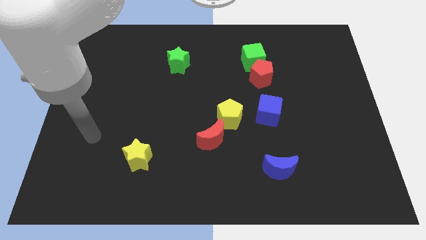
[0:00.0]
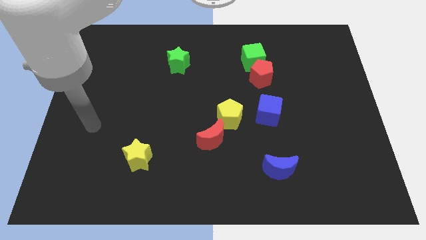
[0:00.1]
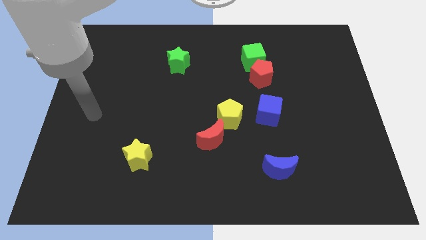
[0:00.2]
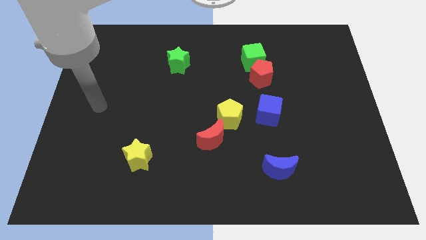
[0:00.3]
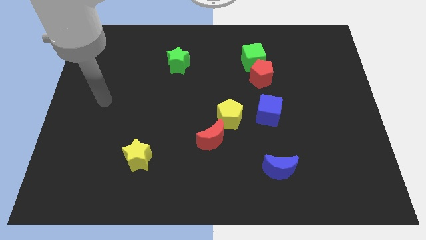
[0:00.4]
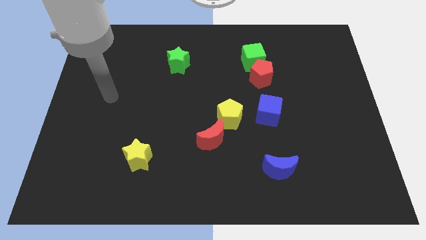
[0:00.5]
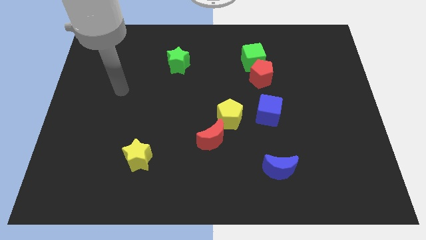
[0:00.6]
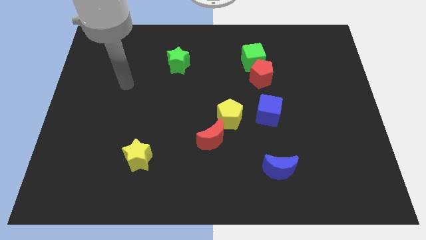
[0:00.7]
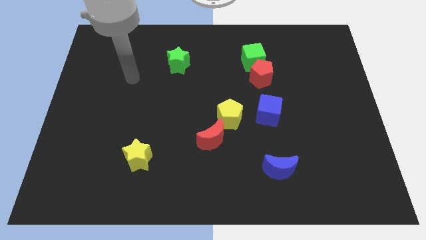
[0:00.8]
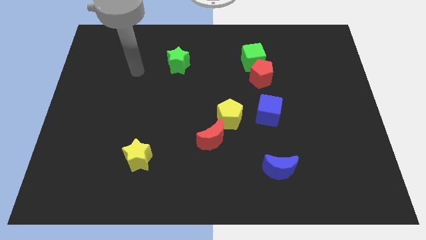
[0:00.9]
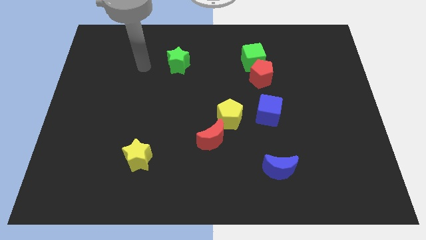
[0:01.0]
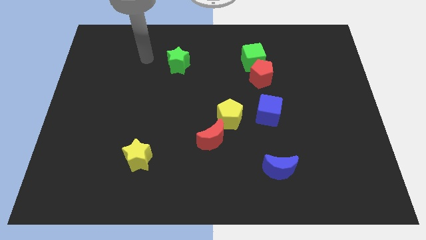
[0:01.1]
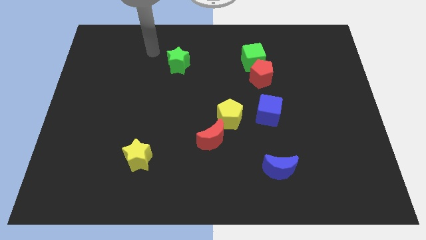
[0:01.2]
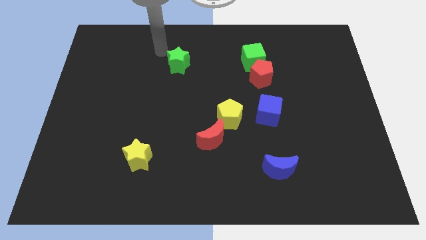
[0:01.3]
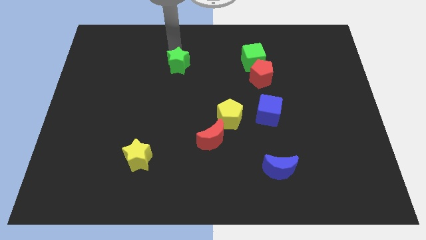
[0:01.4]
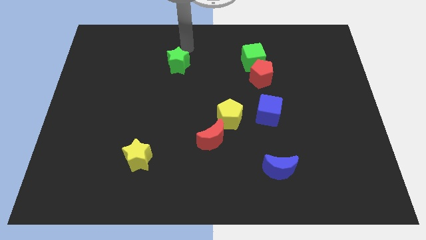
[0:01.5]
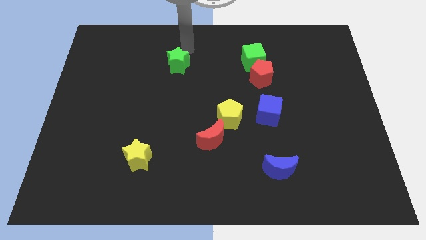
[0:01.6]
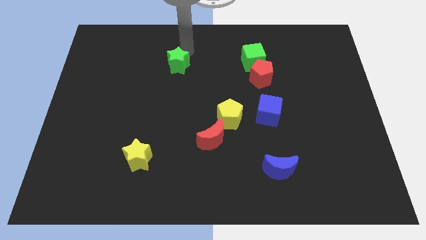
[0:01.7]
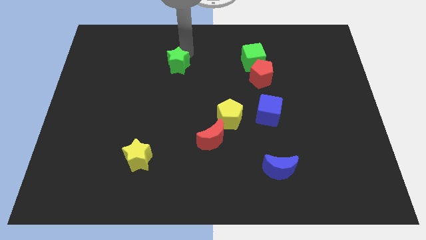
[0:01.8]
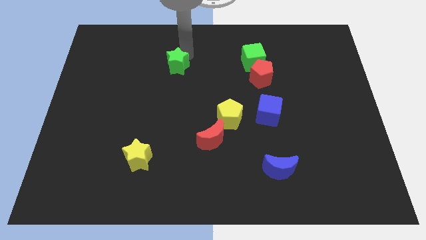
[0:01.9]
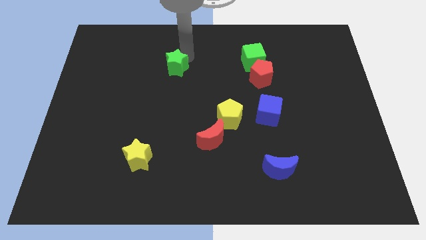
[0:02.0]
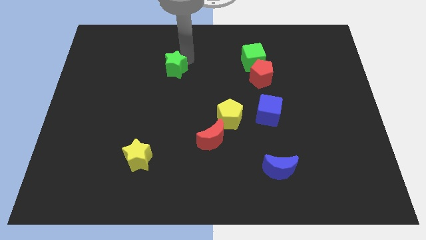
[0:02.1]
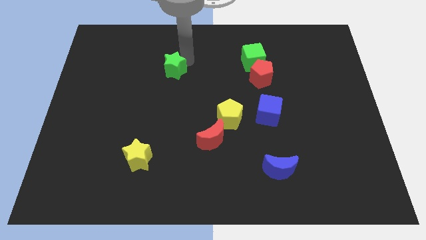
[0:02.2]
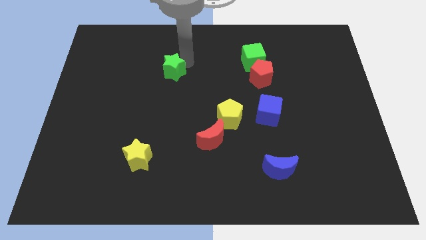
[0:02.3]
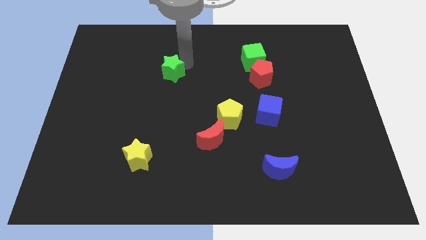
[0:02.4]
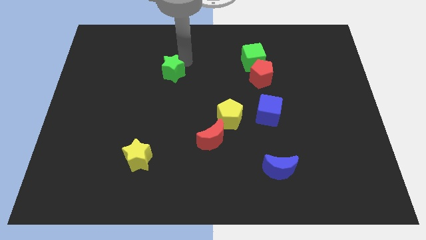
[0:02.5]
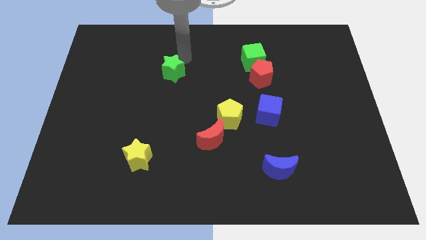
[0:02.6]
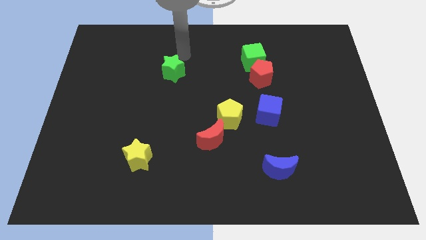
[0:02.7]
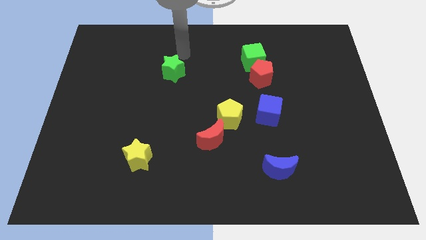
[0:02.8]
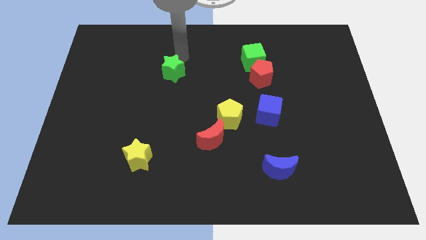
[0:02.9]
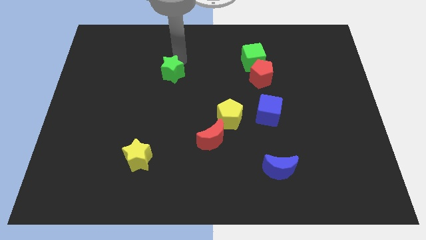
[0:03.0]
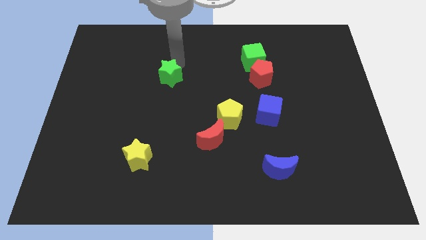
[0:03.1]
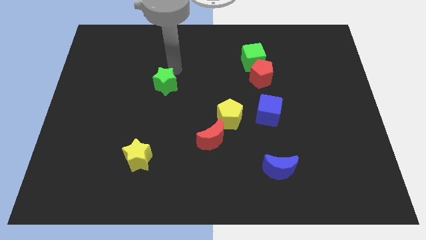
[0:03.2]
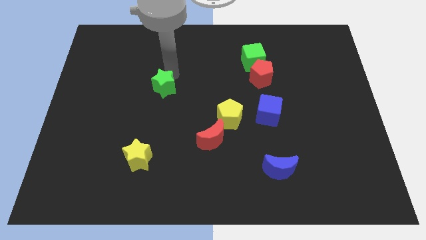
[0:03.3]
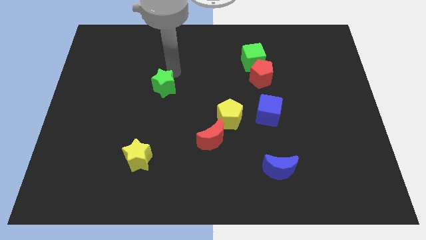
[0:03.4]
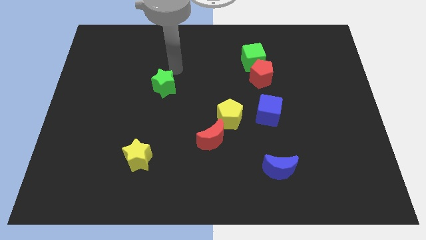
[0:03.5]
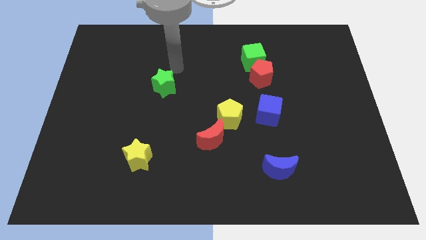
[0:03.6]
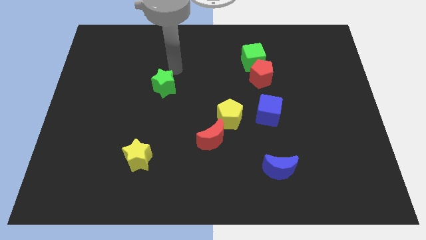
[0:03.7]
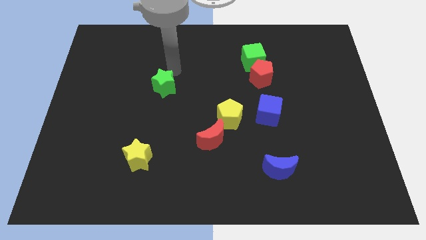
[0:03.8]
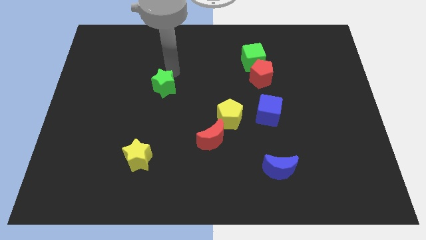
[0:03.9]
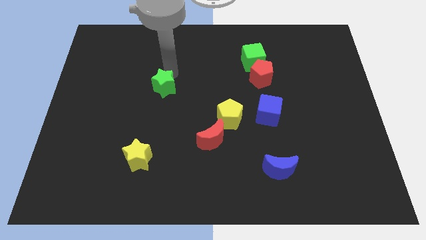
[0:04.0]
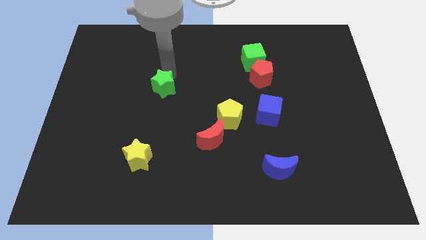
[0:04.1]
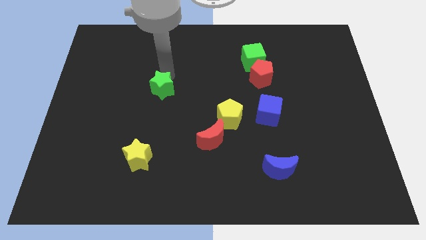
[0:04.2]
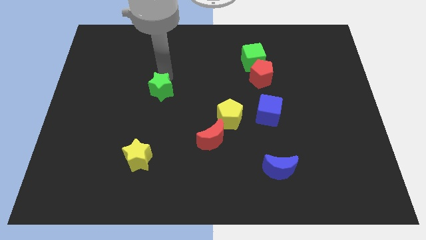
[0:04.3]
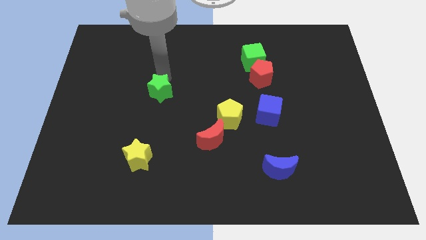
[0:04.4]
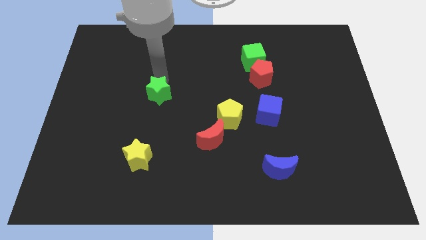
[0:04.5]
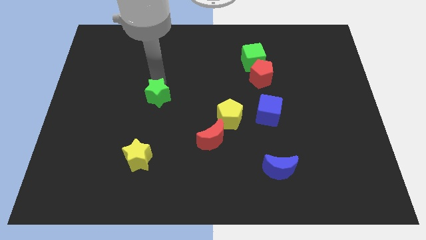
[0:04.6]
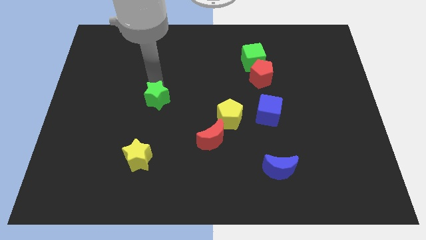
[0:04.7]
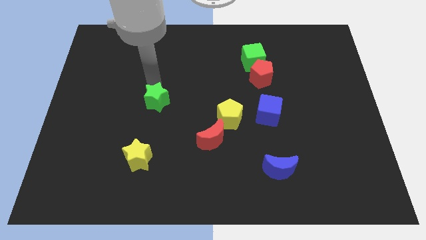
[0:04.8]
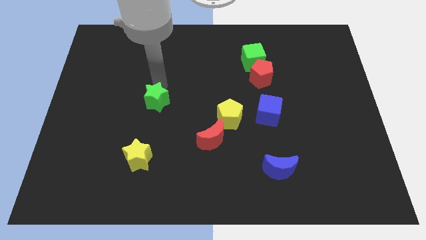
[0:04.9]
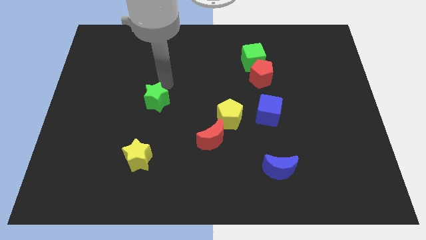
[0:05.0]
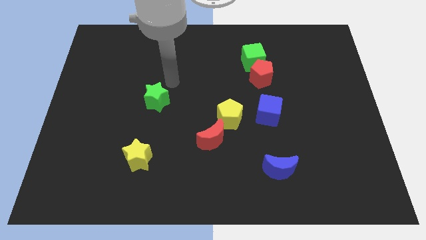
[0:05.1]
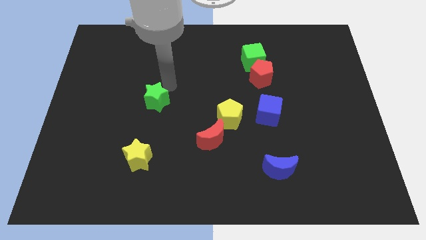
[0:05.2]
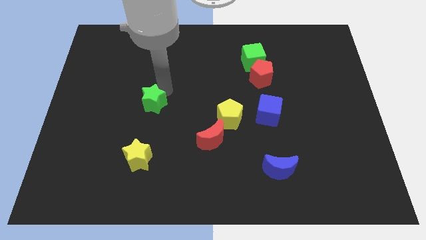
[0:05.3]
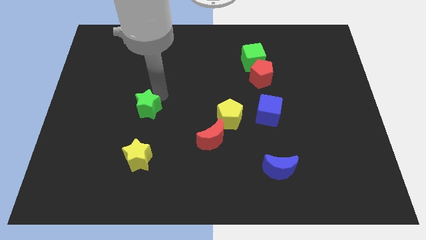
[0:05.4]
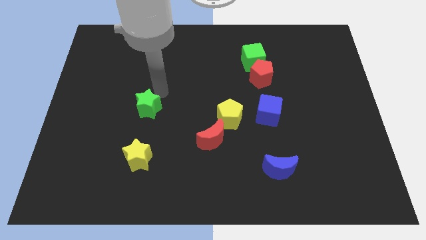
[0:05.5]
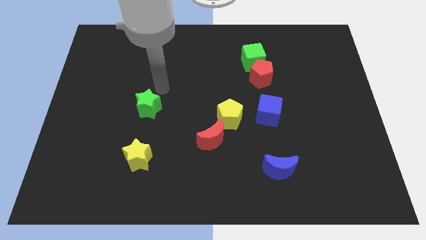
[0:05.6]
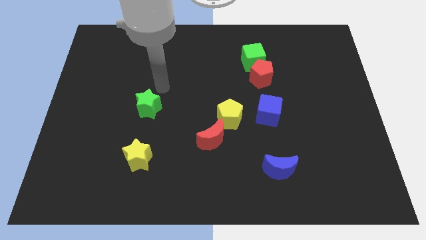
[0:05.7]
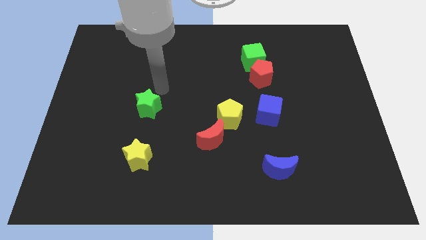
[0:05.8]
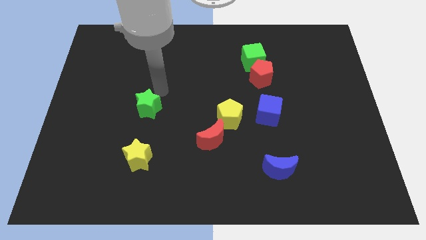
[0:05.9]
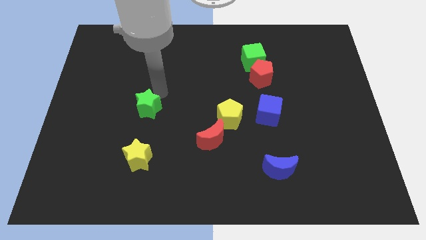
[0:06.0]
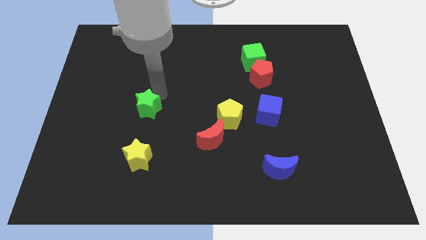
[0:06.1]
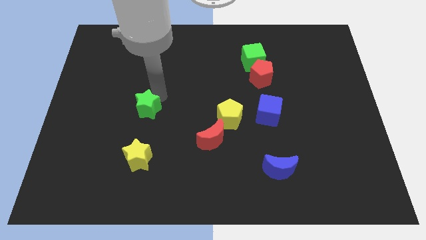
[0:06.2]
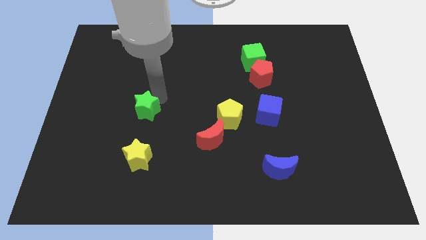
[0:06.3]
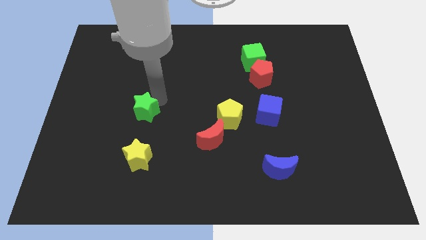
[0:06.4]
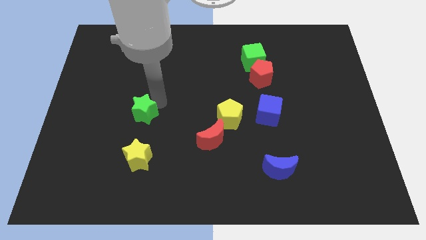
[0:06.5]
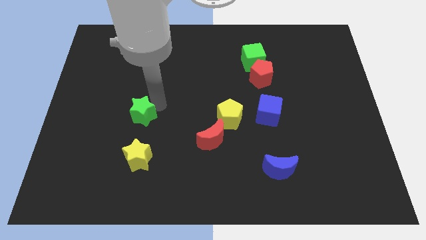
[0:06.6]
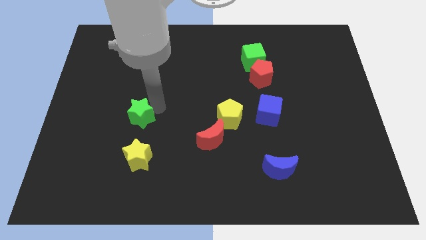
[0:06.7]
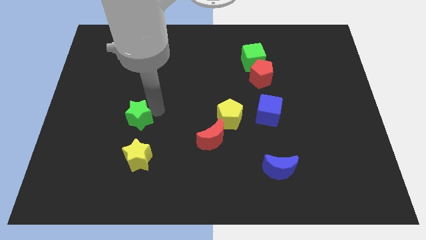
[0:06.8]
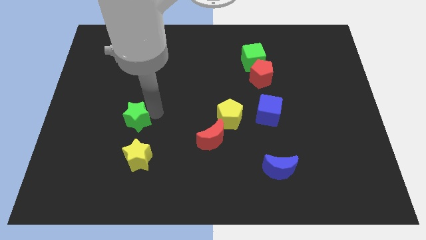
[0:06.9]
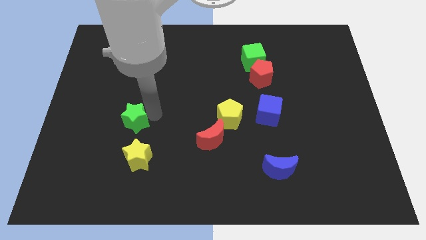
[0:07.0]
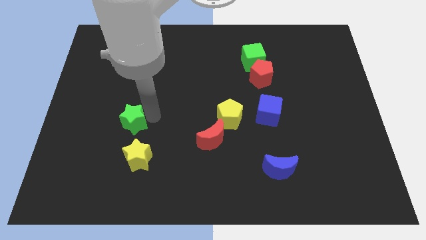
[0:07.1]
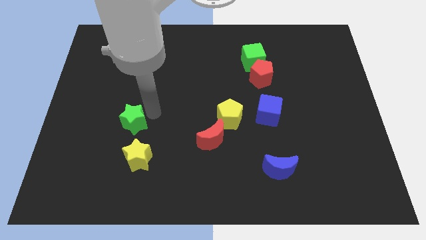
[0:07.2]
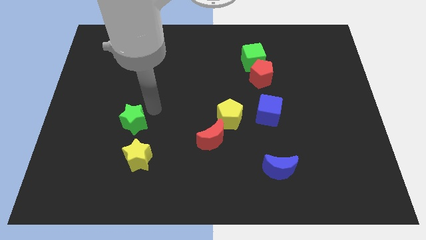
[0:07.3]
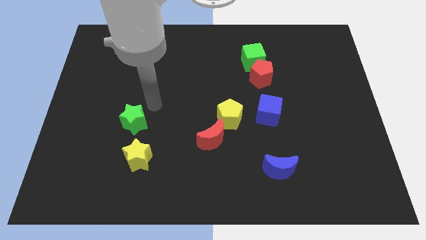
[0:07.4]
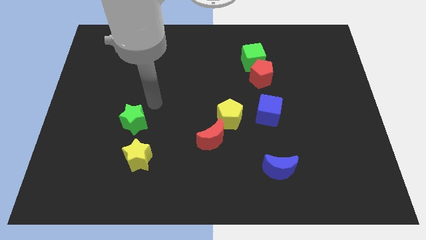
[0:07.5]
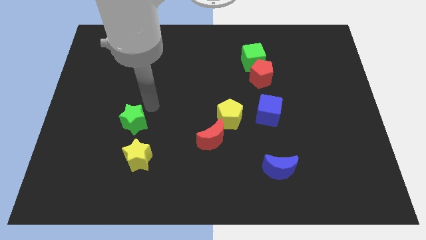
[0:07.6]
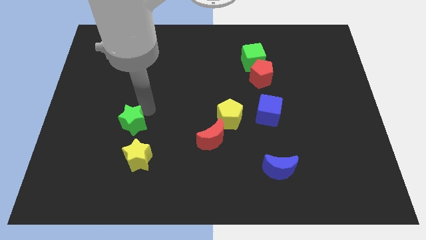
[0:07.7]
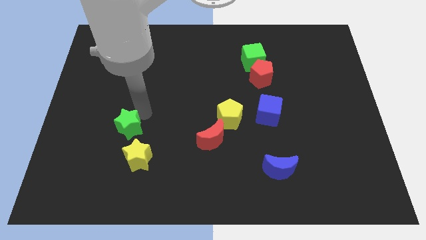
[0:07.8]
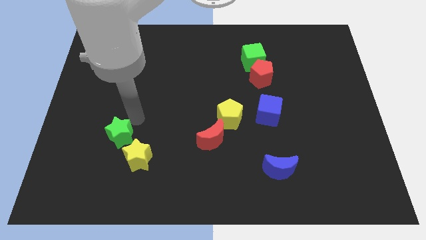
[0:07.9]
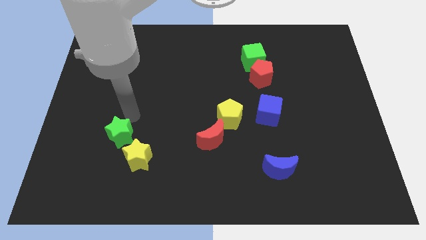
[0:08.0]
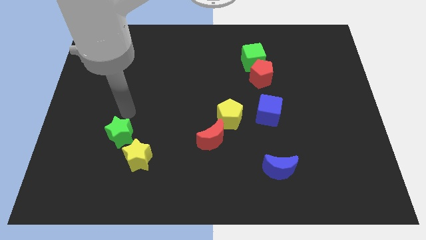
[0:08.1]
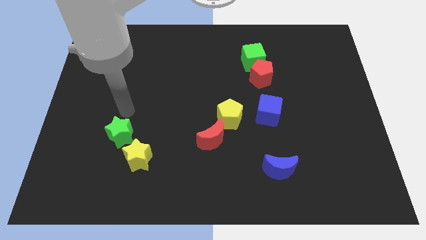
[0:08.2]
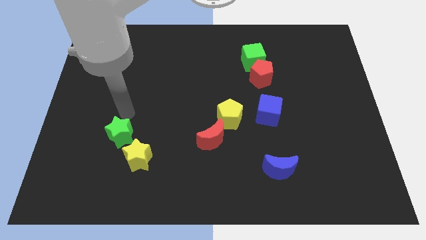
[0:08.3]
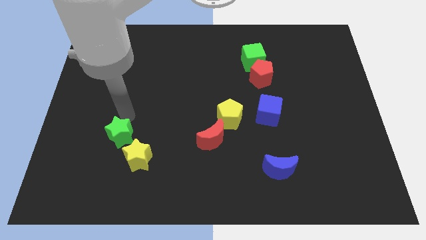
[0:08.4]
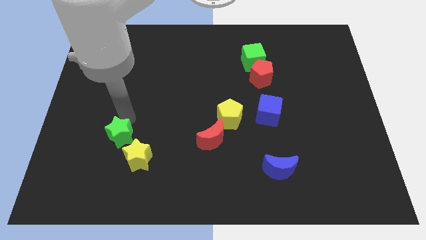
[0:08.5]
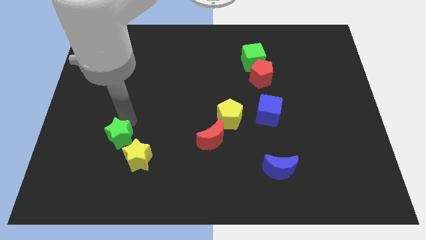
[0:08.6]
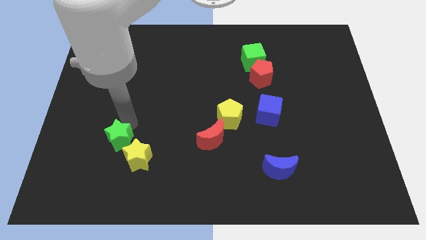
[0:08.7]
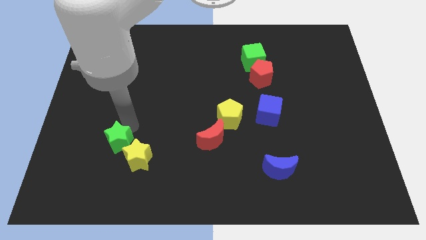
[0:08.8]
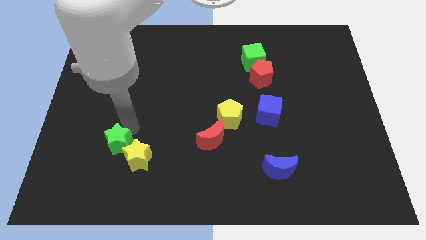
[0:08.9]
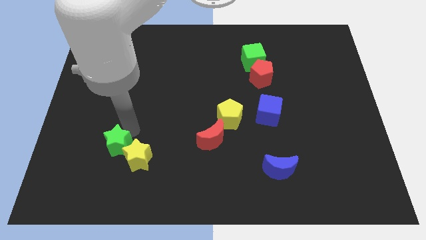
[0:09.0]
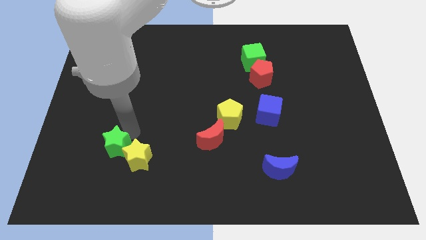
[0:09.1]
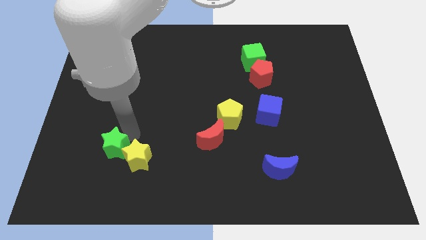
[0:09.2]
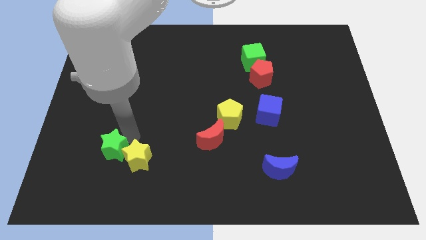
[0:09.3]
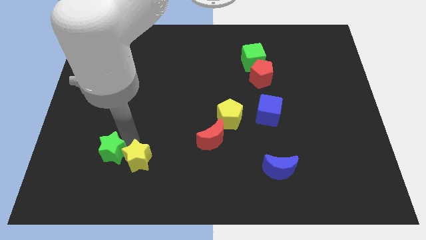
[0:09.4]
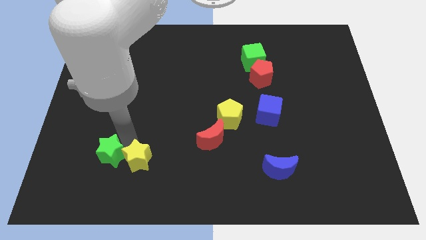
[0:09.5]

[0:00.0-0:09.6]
slide the green star to the bottom left of the yellow star
